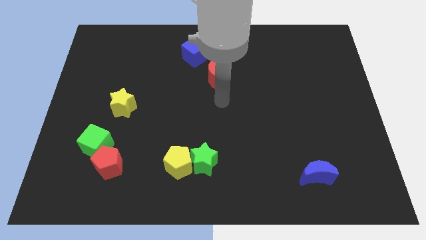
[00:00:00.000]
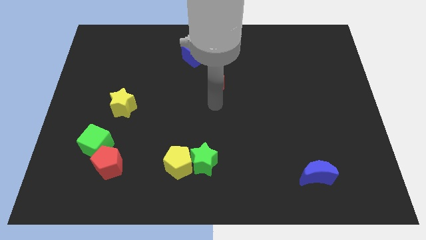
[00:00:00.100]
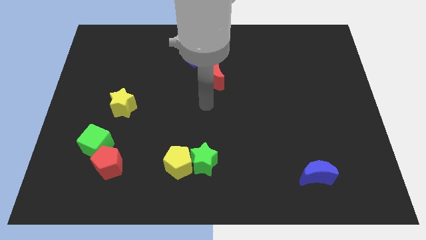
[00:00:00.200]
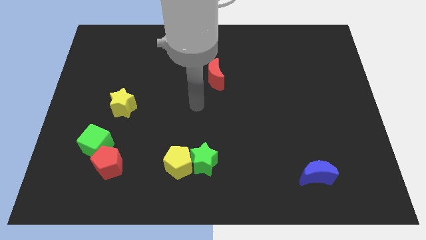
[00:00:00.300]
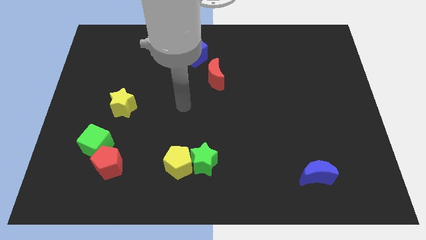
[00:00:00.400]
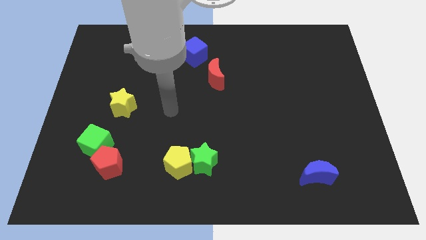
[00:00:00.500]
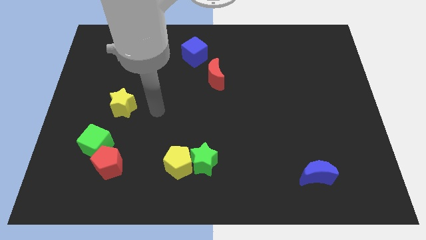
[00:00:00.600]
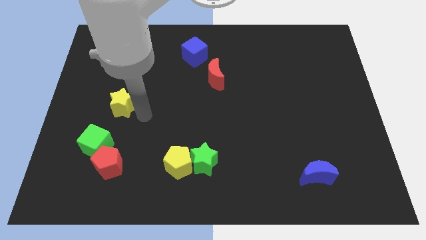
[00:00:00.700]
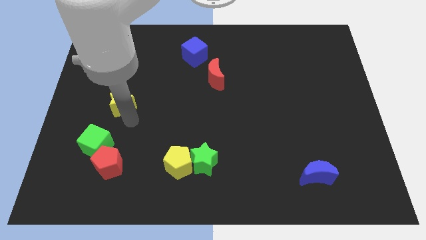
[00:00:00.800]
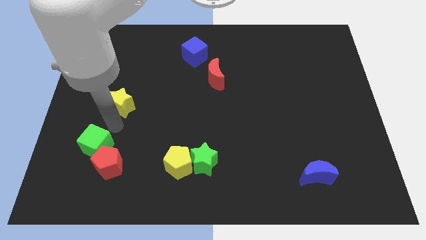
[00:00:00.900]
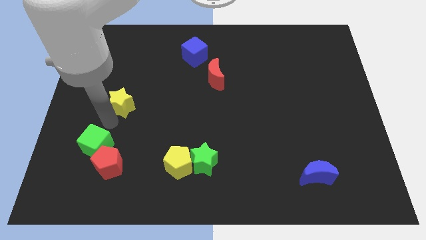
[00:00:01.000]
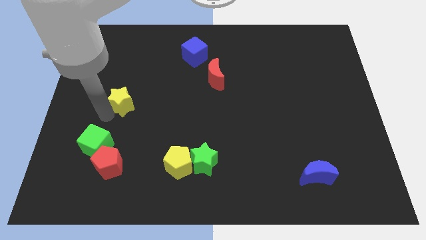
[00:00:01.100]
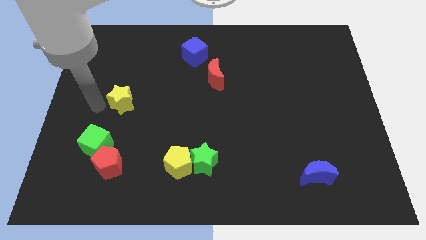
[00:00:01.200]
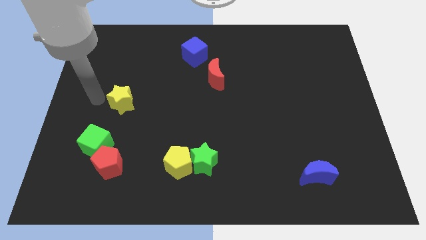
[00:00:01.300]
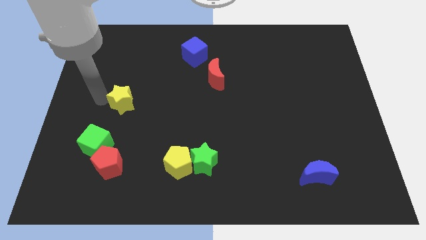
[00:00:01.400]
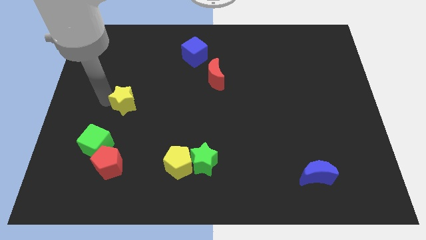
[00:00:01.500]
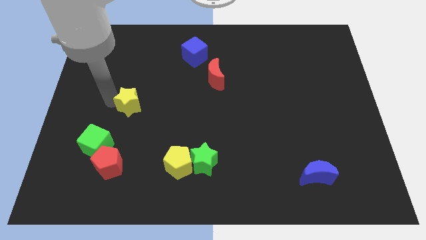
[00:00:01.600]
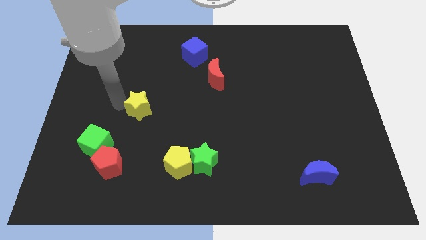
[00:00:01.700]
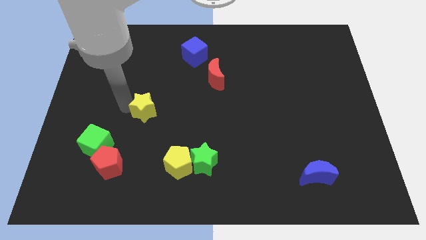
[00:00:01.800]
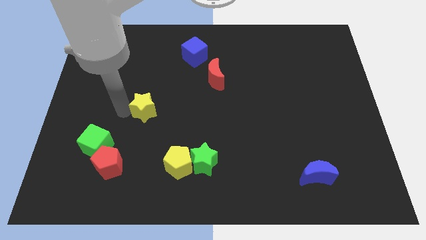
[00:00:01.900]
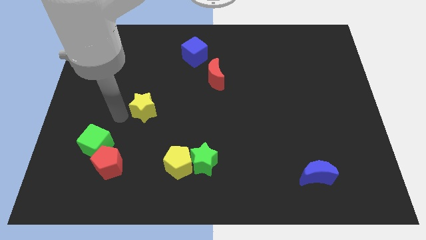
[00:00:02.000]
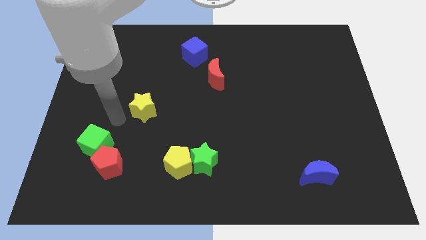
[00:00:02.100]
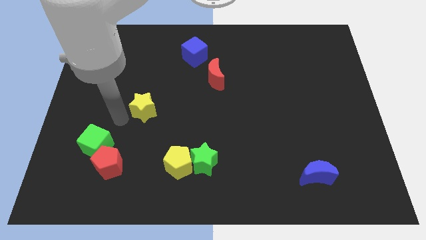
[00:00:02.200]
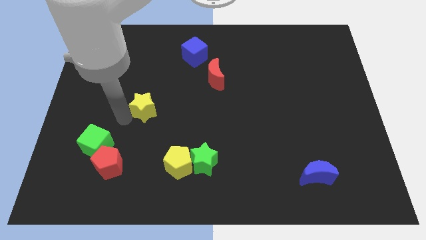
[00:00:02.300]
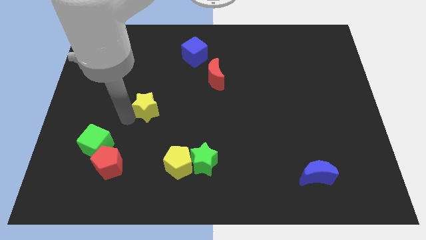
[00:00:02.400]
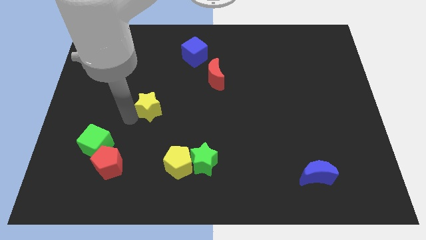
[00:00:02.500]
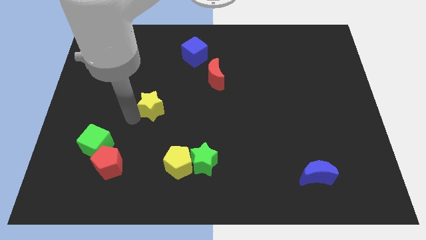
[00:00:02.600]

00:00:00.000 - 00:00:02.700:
push the yellow star right somewhat

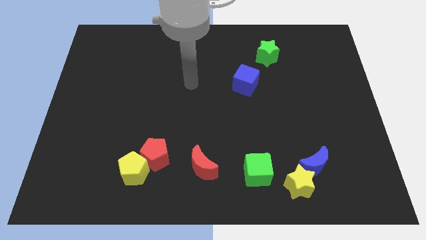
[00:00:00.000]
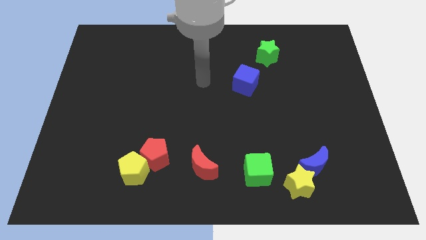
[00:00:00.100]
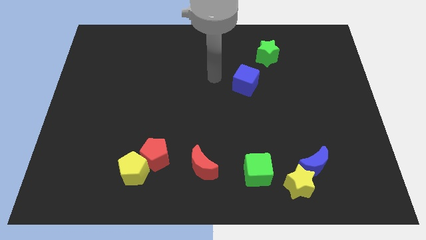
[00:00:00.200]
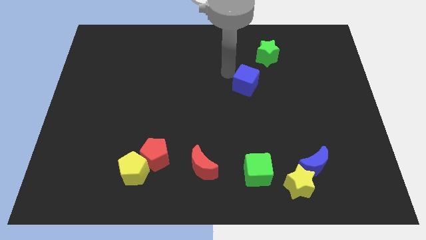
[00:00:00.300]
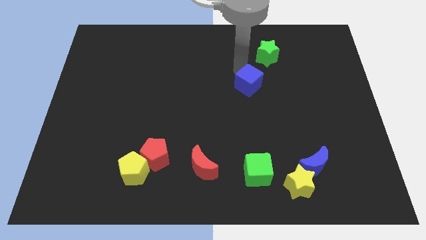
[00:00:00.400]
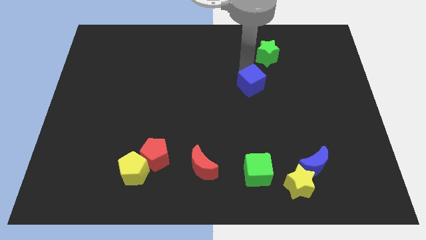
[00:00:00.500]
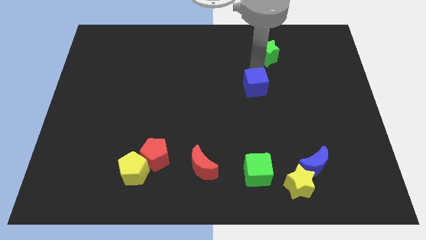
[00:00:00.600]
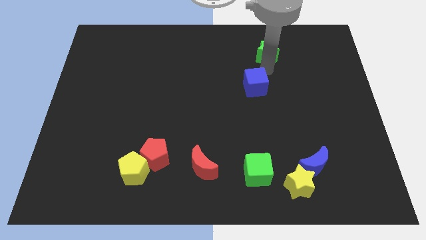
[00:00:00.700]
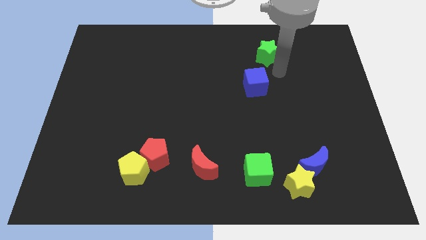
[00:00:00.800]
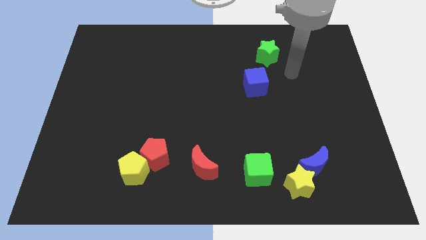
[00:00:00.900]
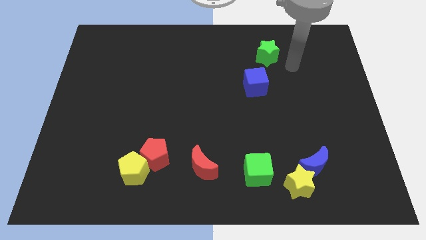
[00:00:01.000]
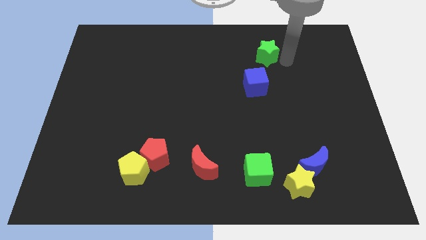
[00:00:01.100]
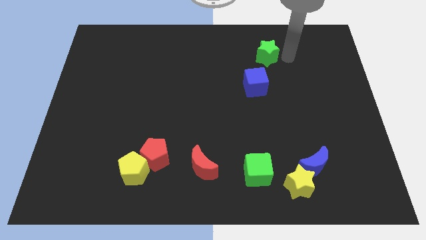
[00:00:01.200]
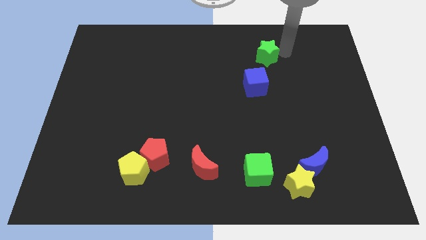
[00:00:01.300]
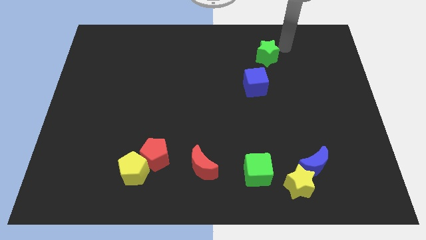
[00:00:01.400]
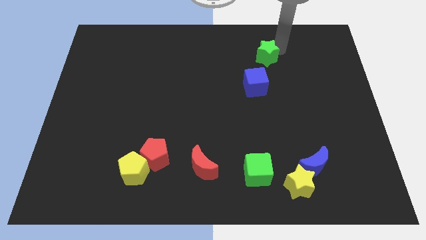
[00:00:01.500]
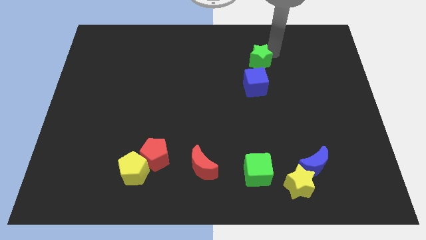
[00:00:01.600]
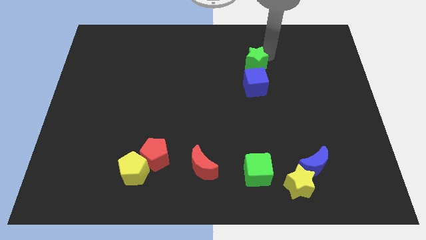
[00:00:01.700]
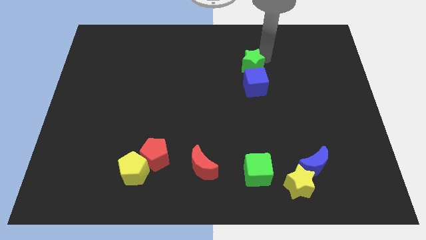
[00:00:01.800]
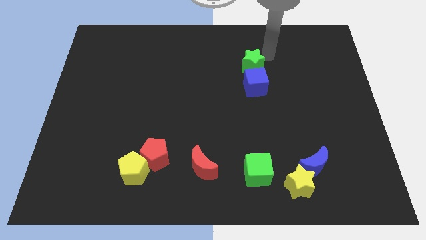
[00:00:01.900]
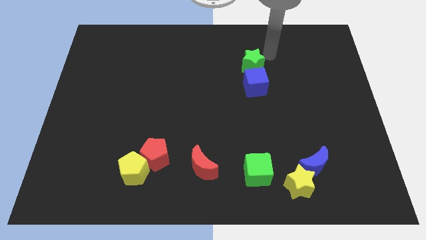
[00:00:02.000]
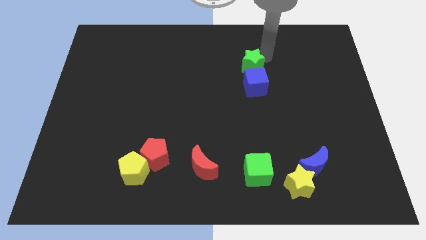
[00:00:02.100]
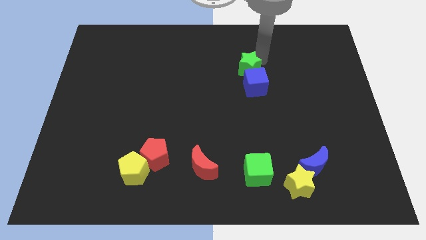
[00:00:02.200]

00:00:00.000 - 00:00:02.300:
slightly slide the green star downwards and left

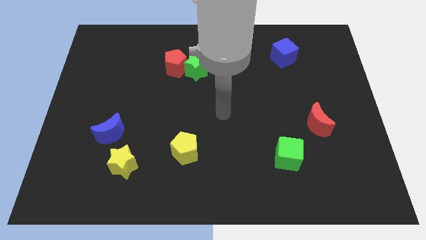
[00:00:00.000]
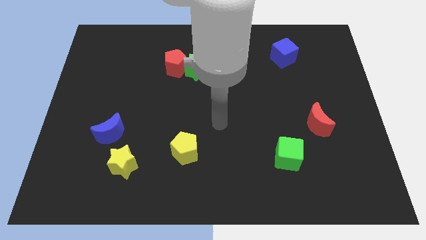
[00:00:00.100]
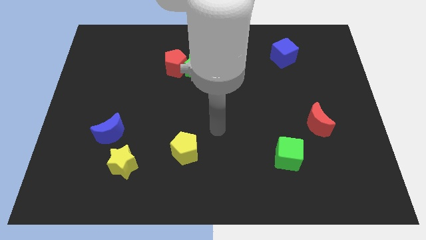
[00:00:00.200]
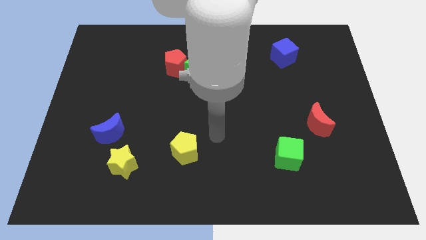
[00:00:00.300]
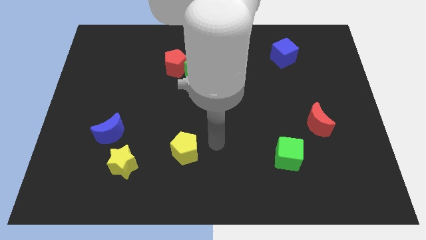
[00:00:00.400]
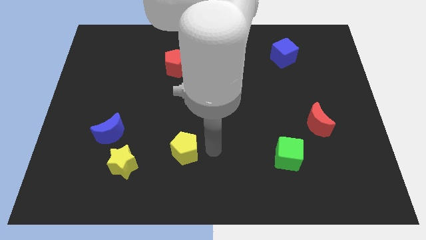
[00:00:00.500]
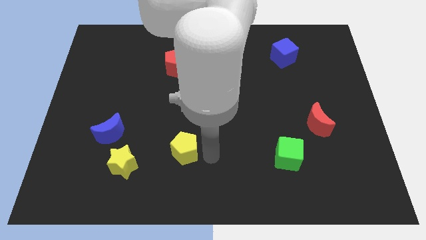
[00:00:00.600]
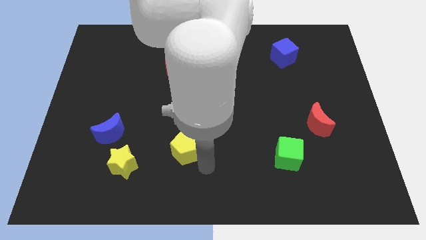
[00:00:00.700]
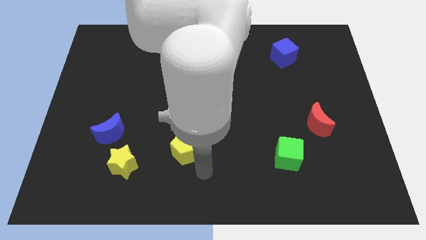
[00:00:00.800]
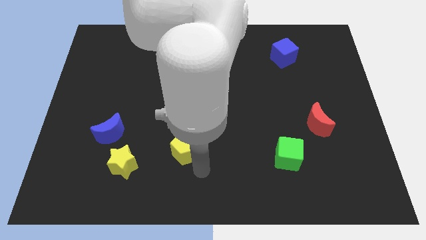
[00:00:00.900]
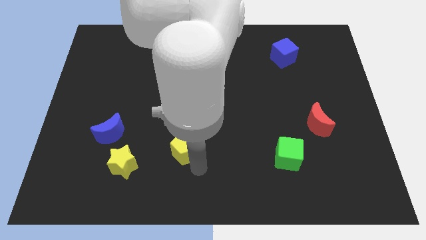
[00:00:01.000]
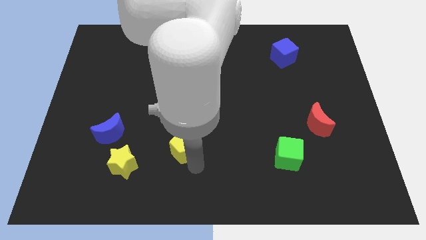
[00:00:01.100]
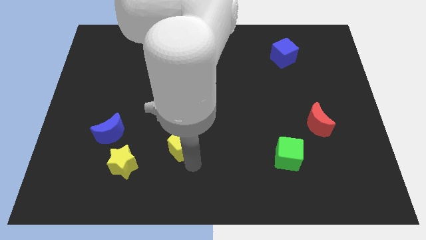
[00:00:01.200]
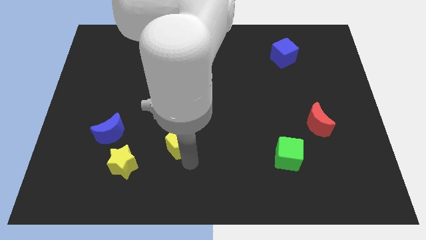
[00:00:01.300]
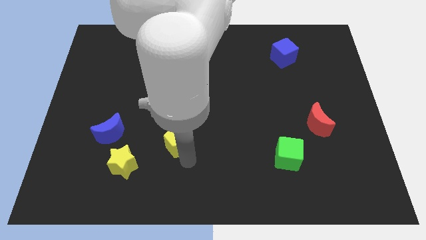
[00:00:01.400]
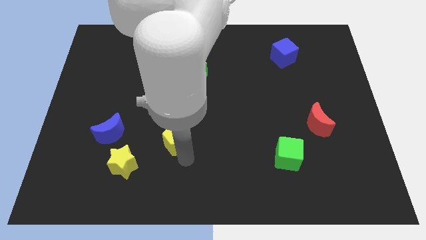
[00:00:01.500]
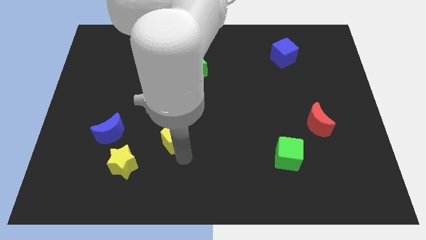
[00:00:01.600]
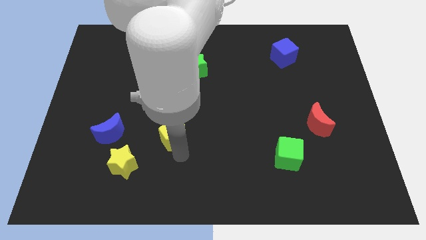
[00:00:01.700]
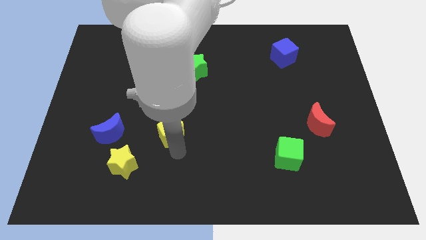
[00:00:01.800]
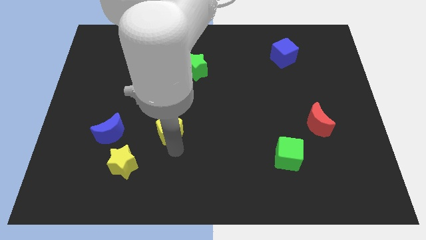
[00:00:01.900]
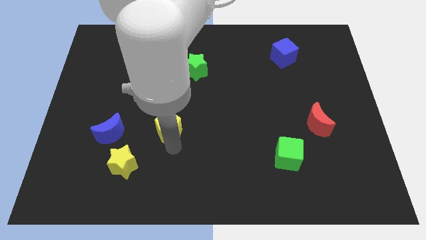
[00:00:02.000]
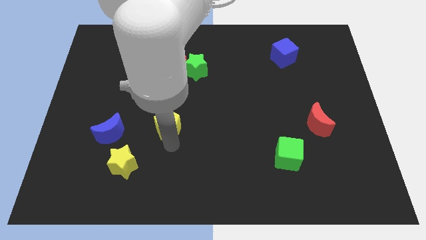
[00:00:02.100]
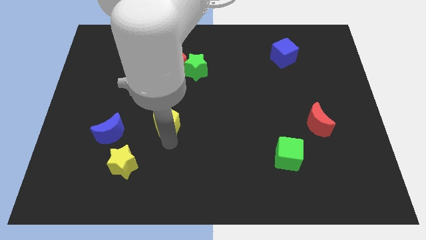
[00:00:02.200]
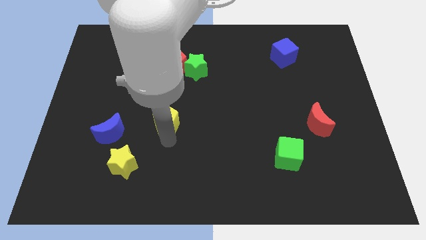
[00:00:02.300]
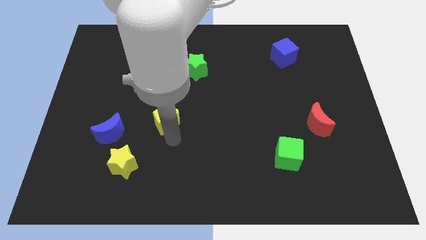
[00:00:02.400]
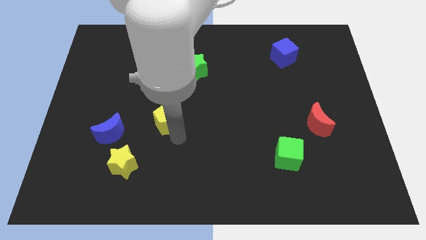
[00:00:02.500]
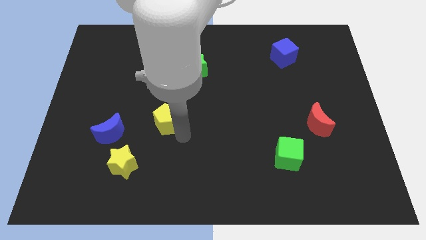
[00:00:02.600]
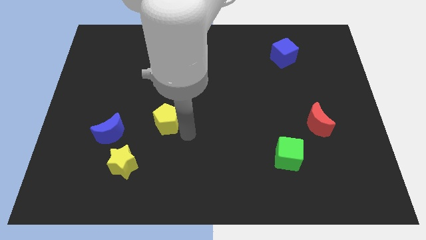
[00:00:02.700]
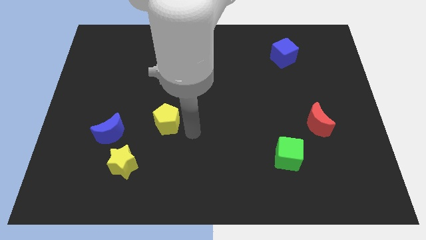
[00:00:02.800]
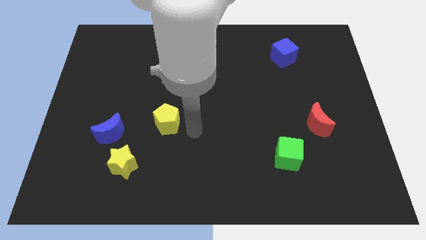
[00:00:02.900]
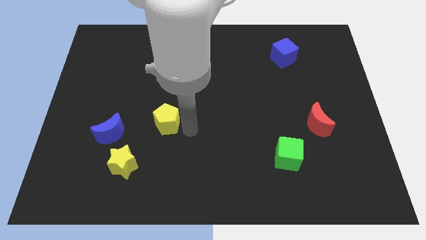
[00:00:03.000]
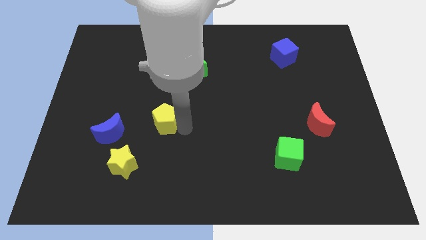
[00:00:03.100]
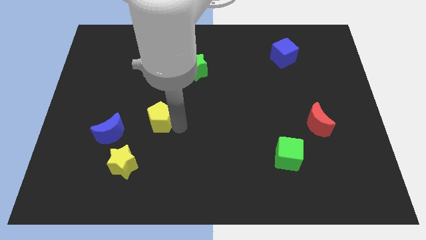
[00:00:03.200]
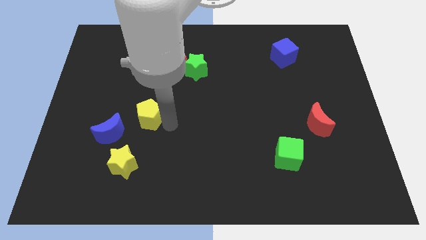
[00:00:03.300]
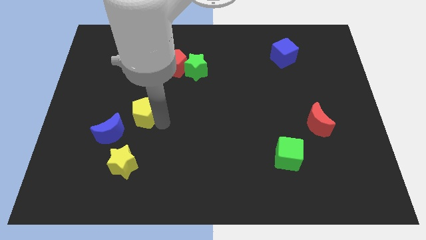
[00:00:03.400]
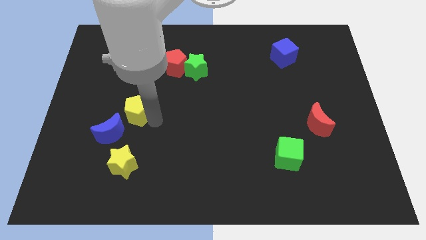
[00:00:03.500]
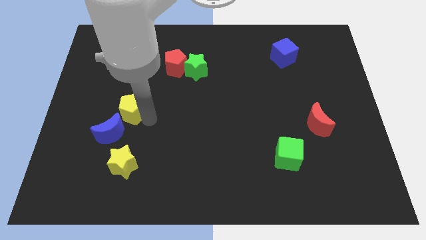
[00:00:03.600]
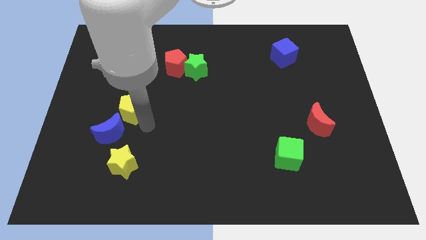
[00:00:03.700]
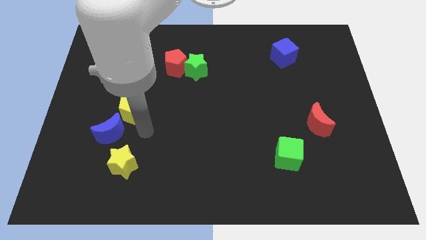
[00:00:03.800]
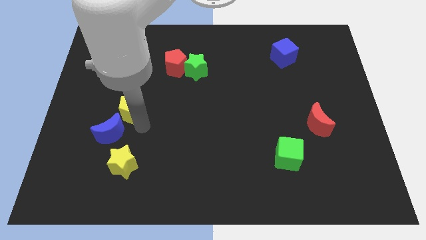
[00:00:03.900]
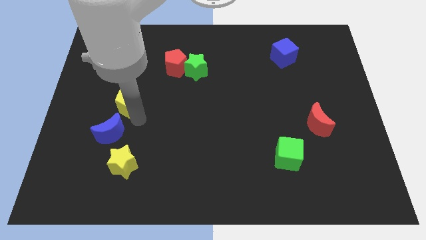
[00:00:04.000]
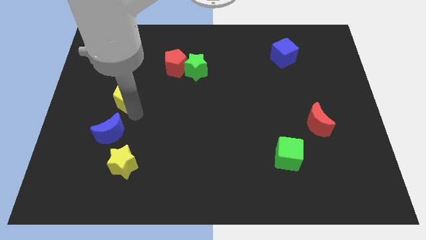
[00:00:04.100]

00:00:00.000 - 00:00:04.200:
move the yellow pentagon diagonally upwards and left
